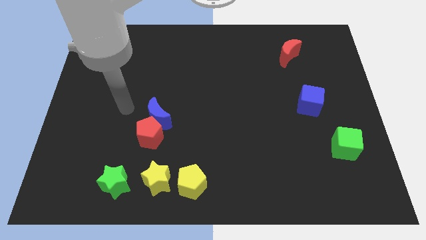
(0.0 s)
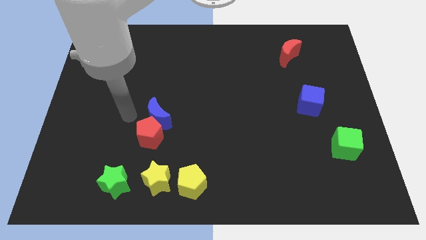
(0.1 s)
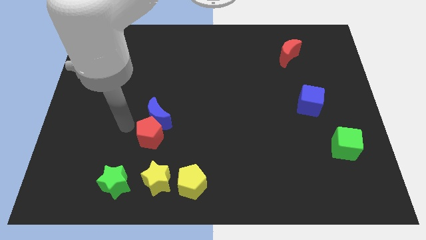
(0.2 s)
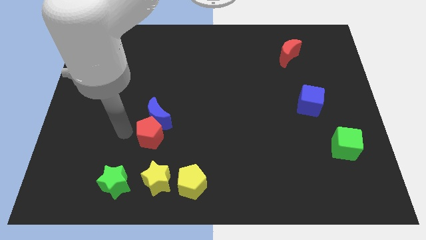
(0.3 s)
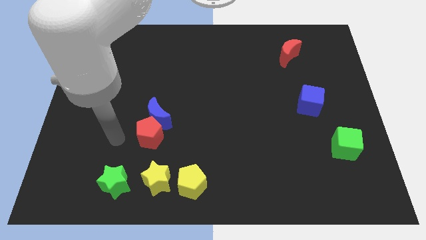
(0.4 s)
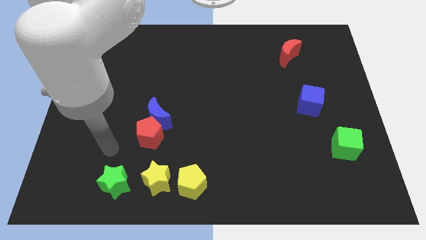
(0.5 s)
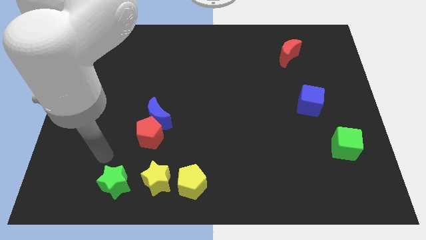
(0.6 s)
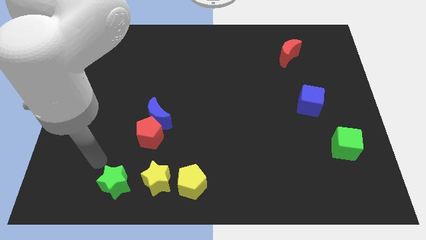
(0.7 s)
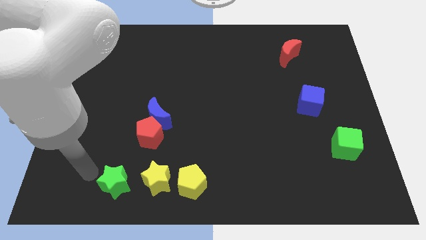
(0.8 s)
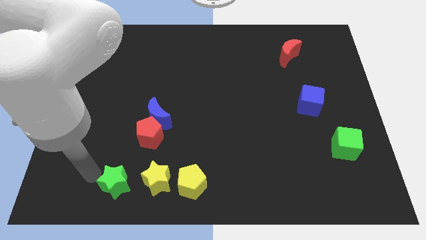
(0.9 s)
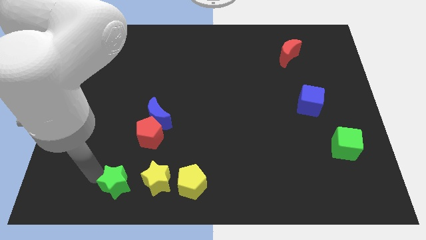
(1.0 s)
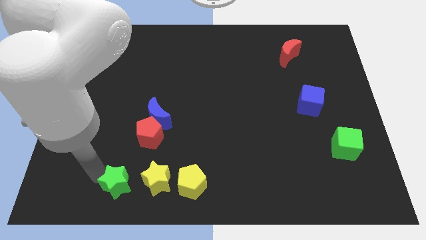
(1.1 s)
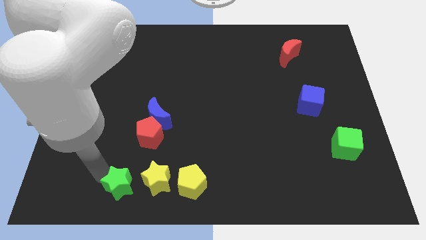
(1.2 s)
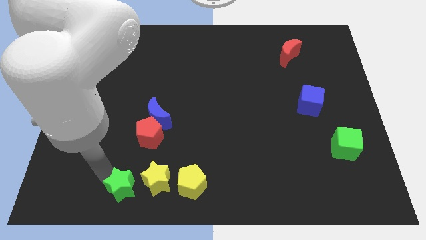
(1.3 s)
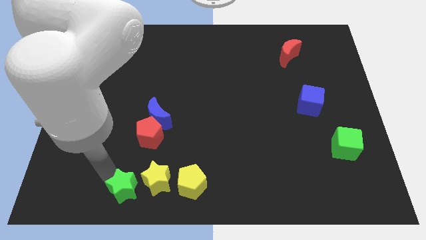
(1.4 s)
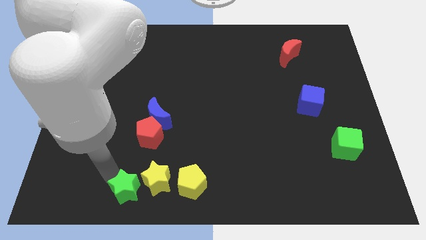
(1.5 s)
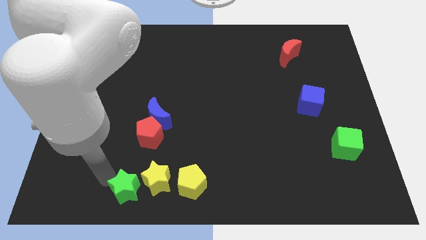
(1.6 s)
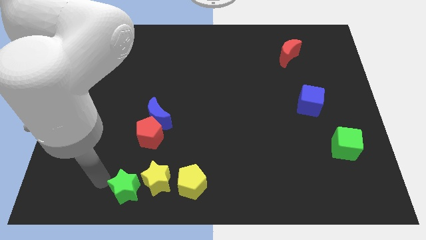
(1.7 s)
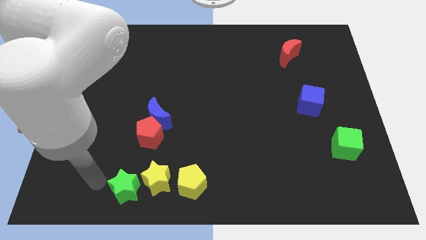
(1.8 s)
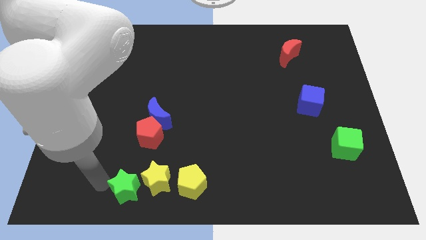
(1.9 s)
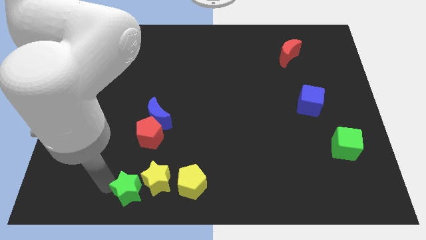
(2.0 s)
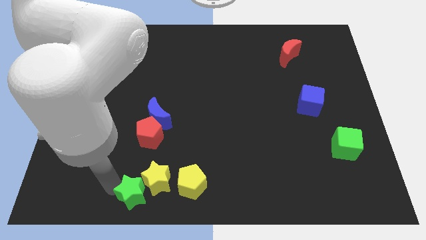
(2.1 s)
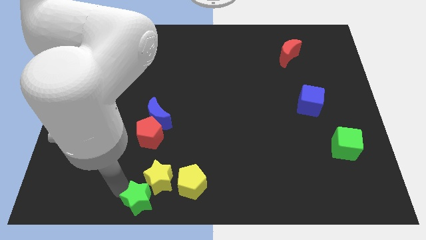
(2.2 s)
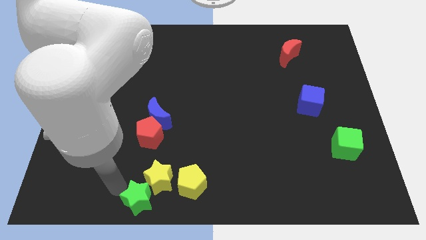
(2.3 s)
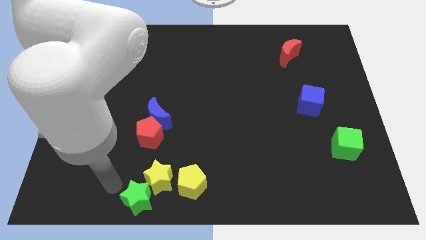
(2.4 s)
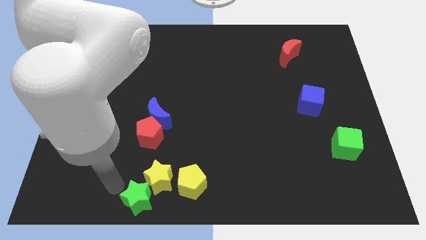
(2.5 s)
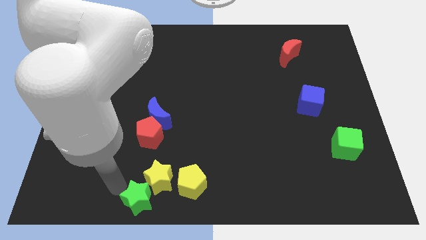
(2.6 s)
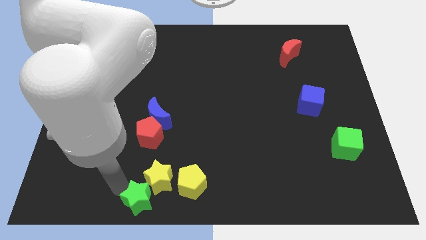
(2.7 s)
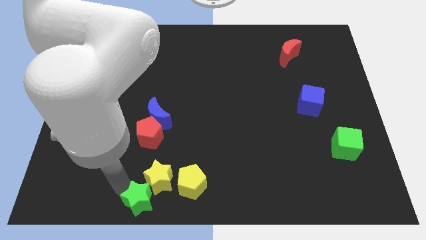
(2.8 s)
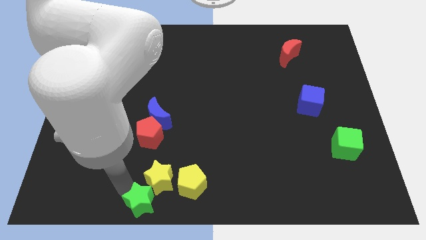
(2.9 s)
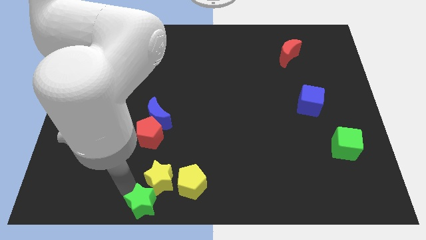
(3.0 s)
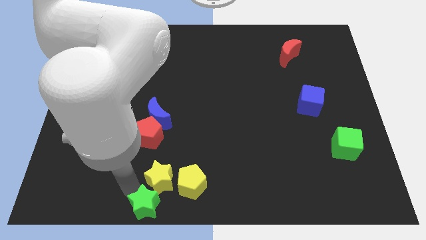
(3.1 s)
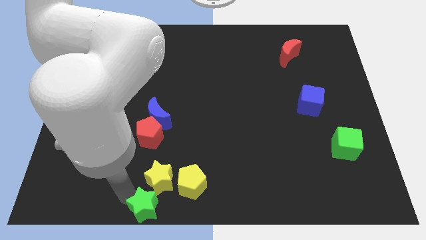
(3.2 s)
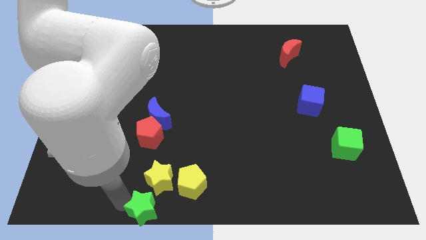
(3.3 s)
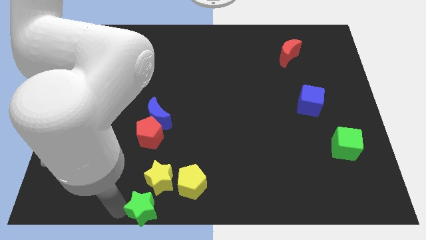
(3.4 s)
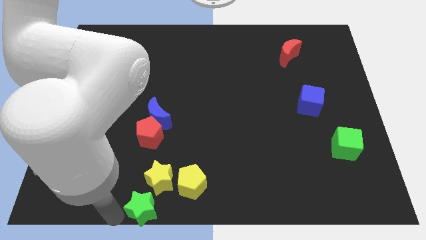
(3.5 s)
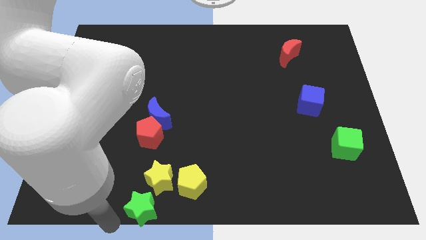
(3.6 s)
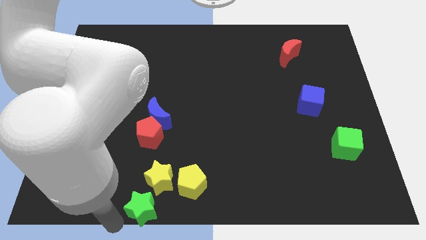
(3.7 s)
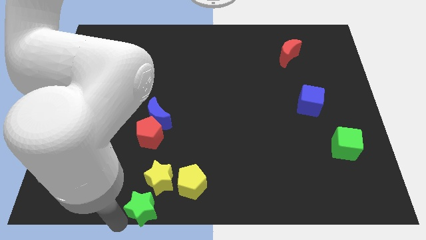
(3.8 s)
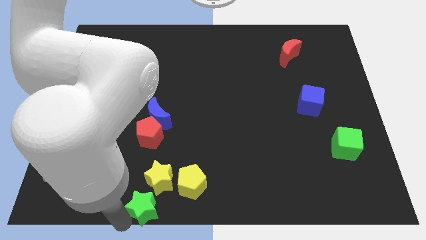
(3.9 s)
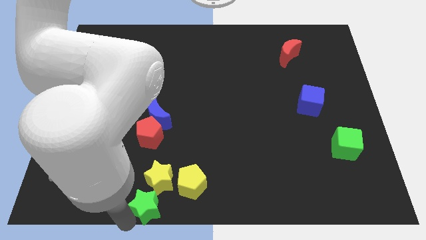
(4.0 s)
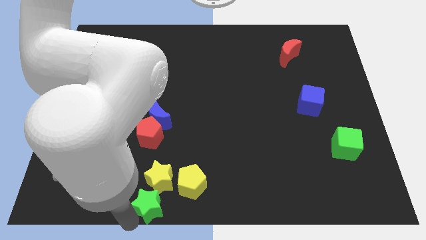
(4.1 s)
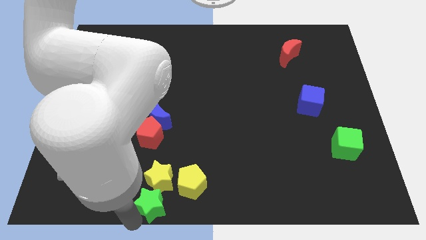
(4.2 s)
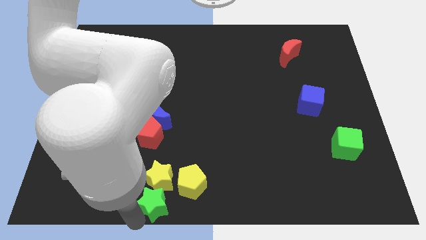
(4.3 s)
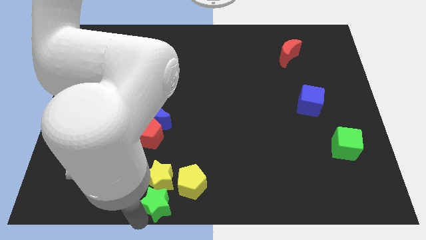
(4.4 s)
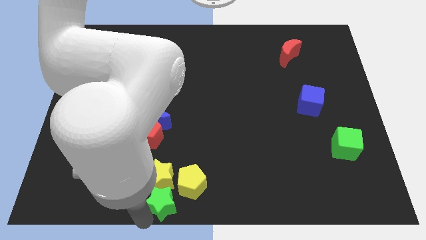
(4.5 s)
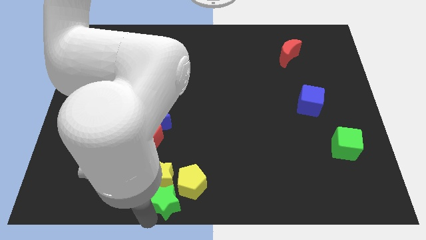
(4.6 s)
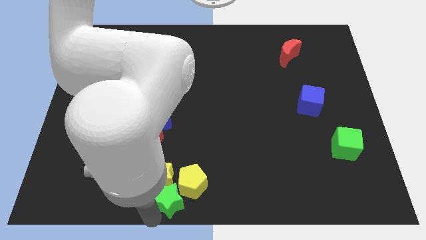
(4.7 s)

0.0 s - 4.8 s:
slide the green star next to the yellow pentagon

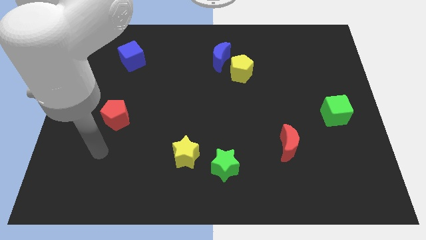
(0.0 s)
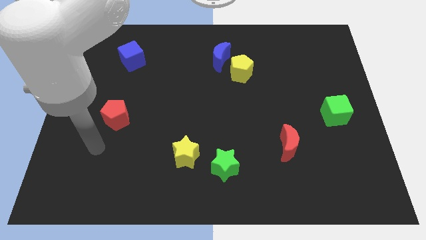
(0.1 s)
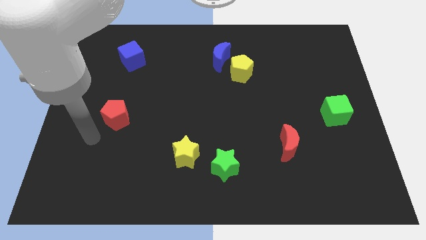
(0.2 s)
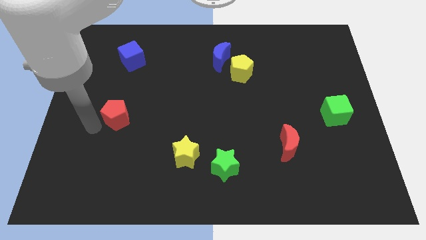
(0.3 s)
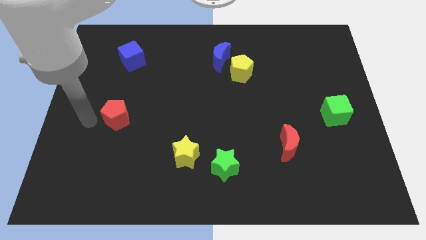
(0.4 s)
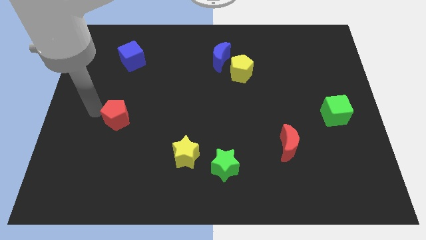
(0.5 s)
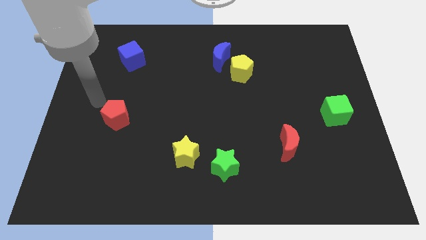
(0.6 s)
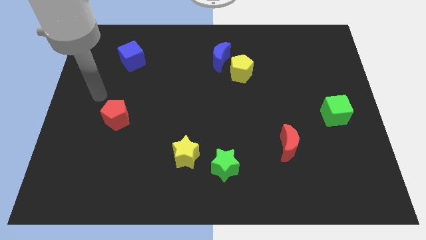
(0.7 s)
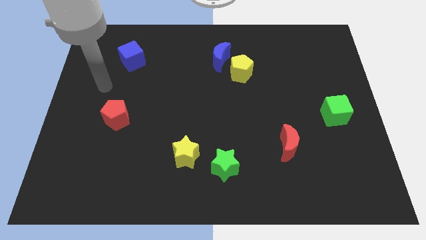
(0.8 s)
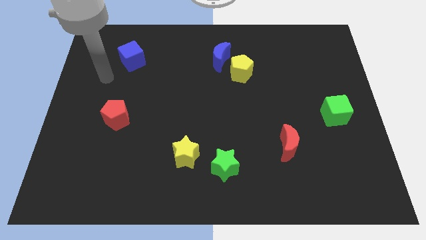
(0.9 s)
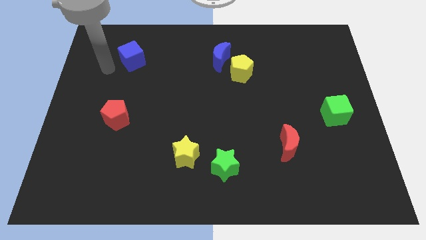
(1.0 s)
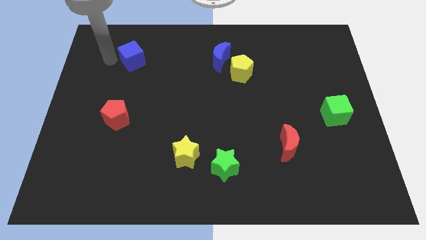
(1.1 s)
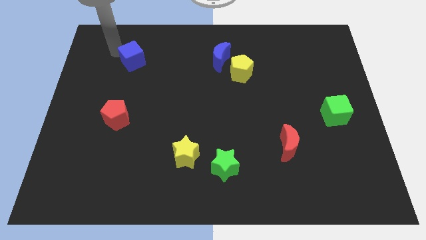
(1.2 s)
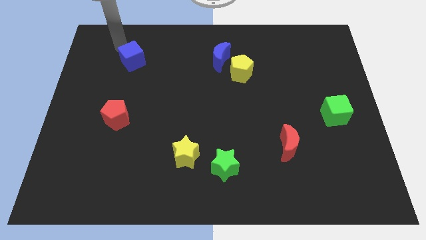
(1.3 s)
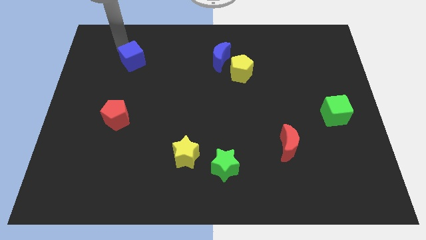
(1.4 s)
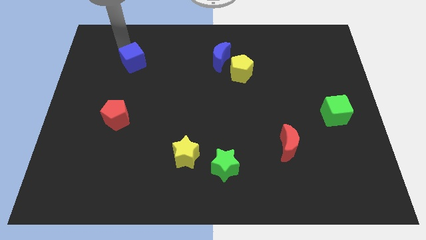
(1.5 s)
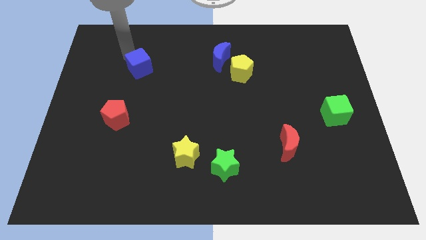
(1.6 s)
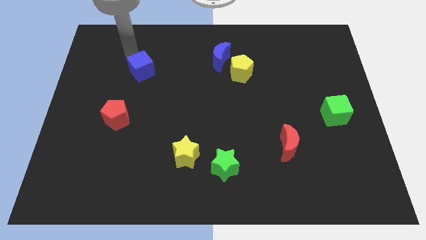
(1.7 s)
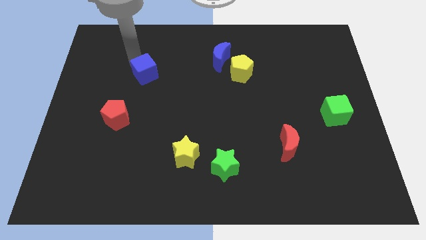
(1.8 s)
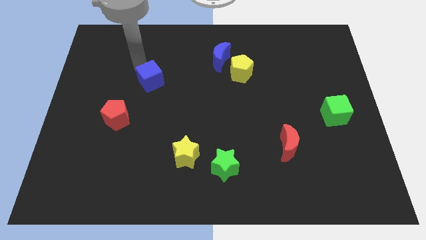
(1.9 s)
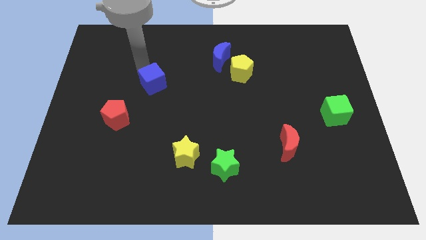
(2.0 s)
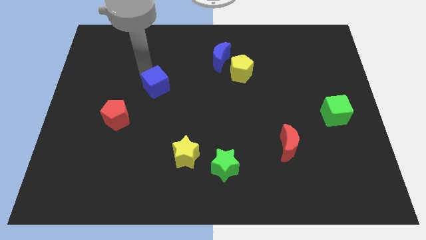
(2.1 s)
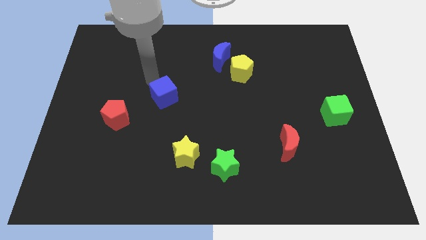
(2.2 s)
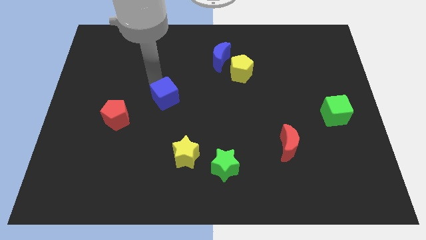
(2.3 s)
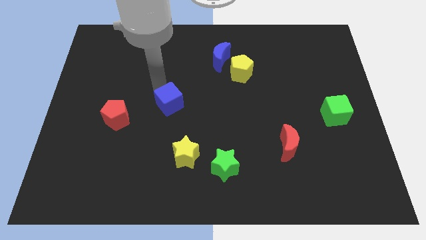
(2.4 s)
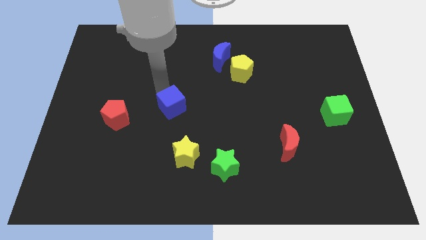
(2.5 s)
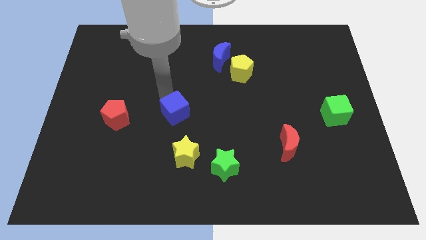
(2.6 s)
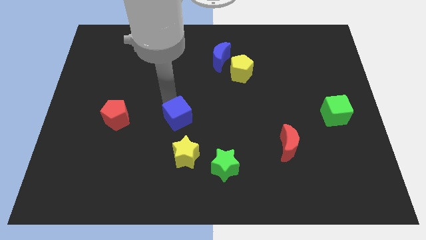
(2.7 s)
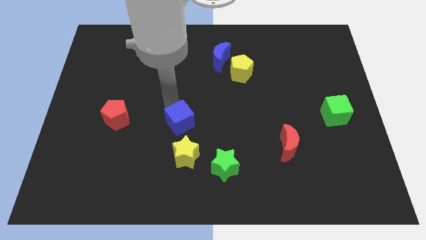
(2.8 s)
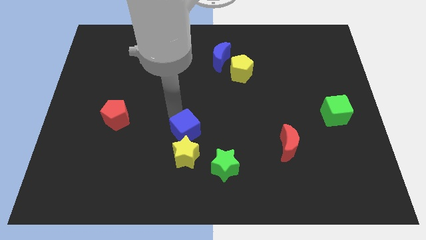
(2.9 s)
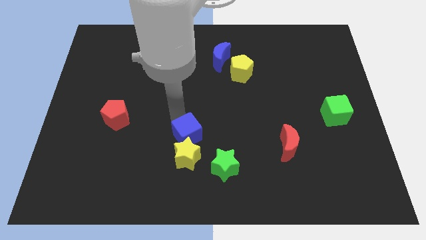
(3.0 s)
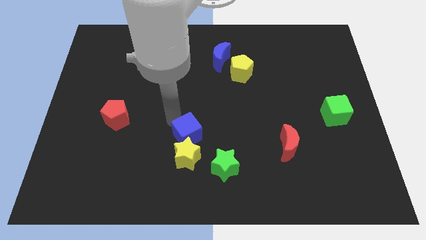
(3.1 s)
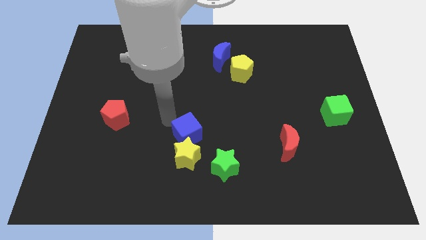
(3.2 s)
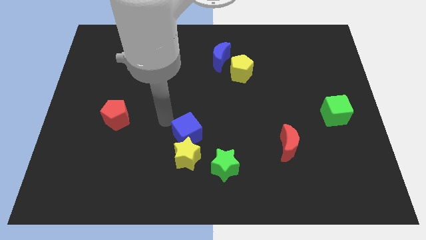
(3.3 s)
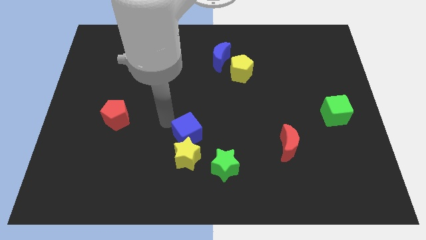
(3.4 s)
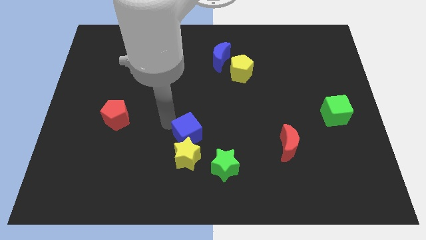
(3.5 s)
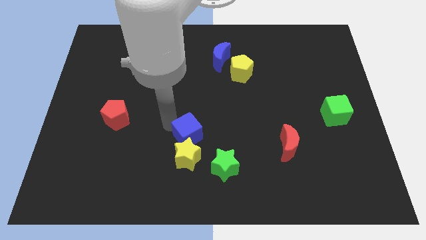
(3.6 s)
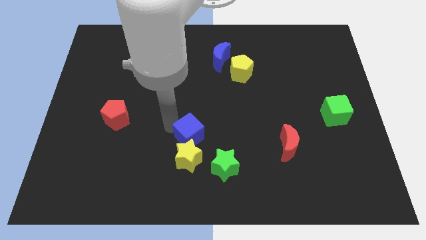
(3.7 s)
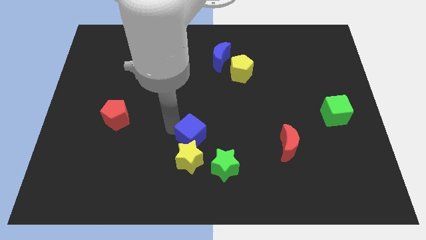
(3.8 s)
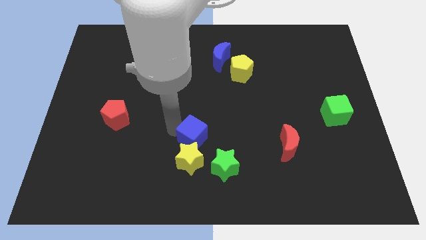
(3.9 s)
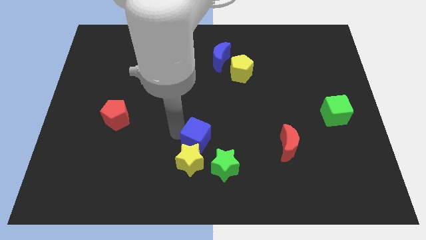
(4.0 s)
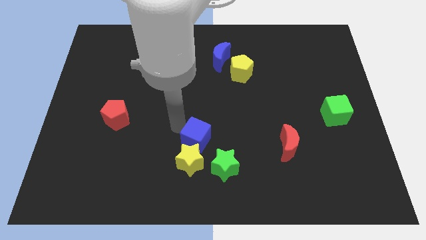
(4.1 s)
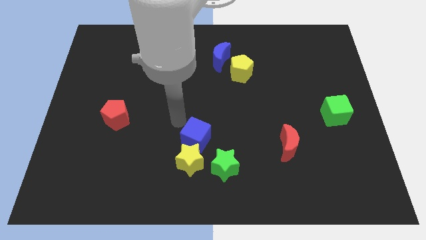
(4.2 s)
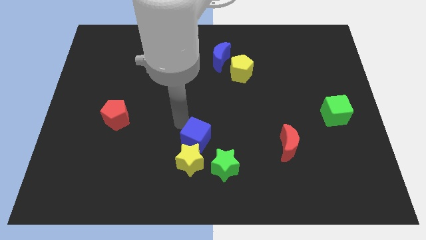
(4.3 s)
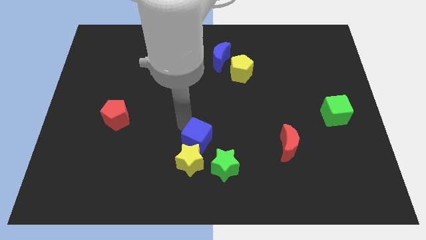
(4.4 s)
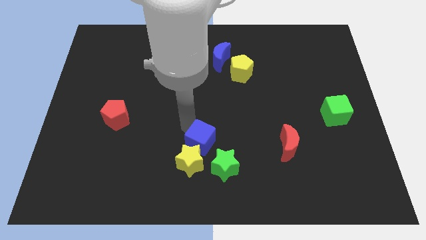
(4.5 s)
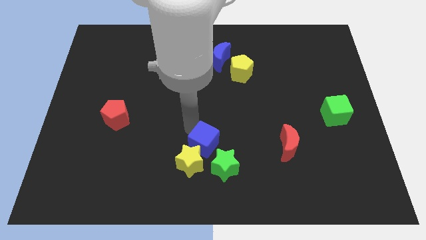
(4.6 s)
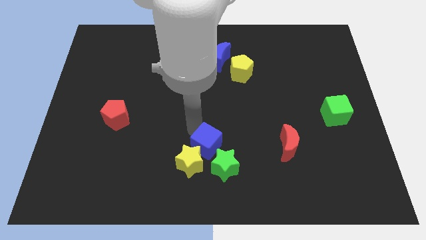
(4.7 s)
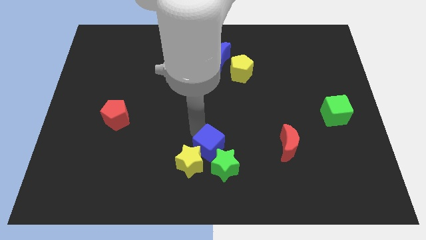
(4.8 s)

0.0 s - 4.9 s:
put the blue cube next to the green star
